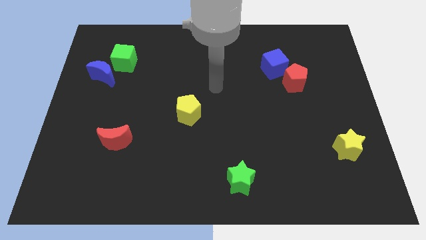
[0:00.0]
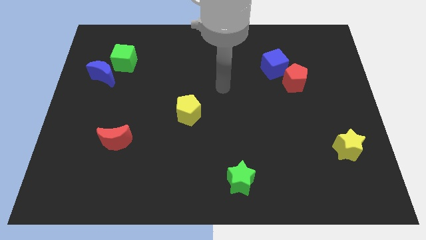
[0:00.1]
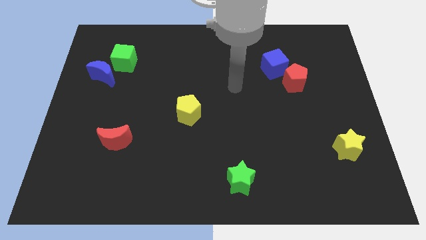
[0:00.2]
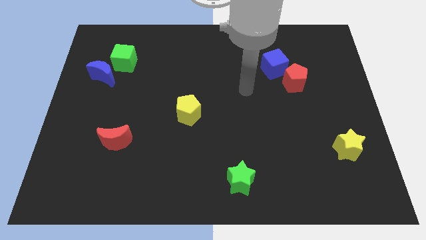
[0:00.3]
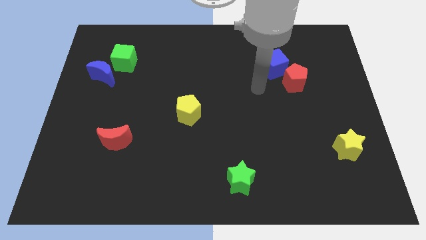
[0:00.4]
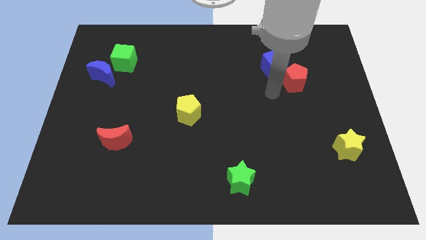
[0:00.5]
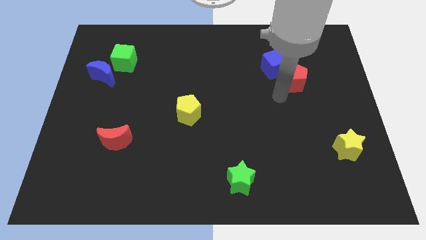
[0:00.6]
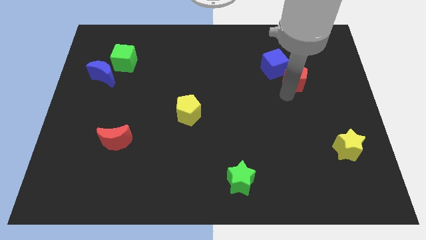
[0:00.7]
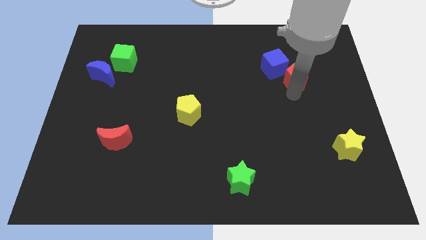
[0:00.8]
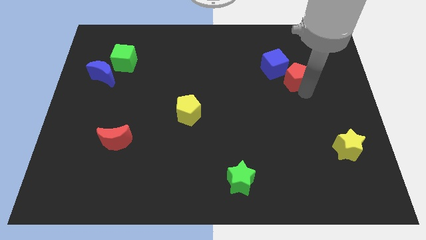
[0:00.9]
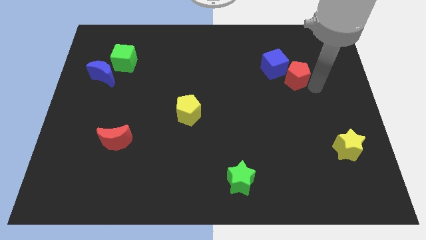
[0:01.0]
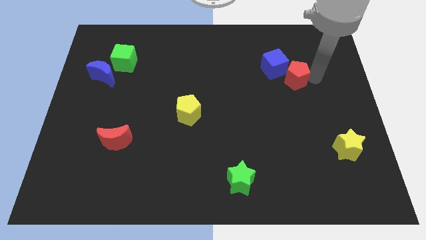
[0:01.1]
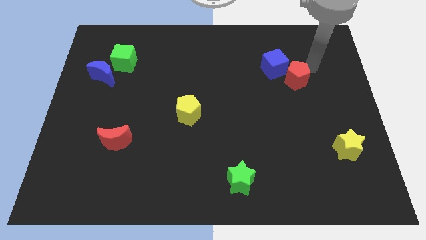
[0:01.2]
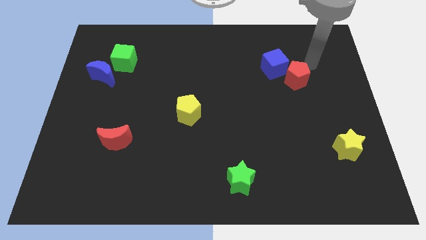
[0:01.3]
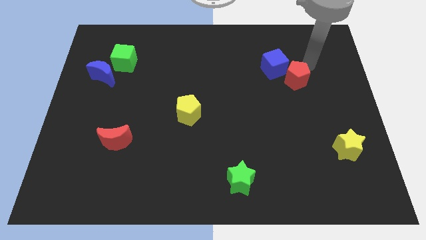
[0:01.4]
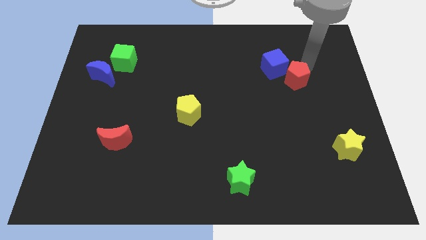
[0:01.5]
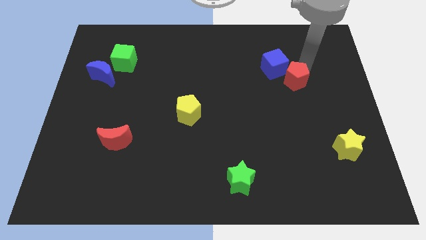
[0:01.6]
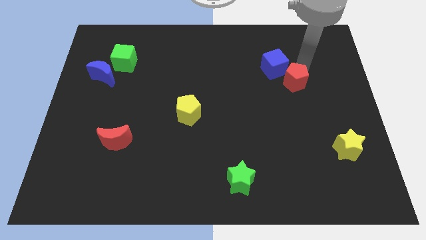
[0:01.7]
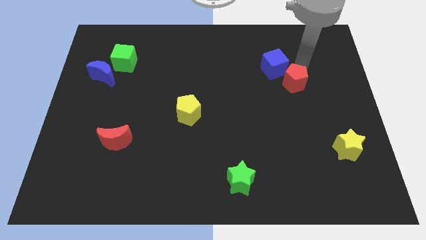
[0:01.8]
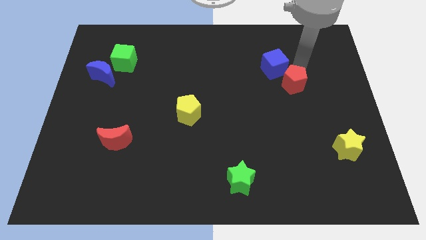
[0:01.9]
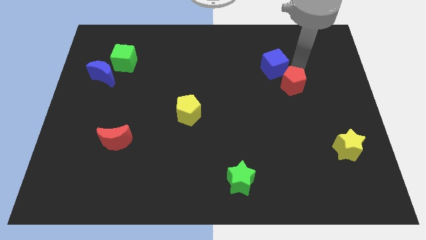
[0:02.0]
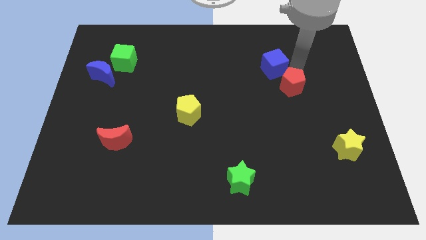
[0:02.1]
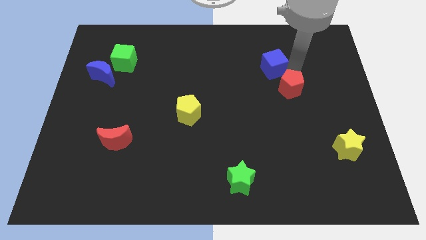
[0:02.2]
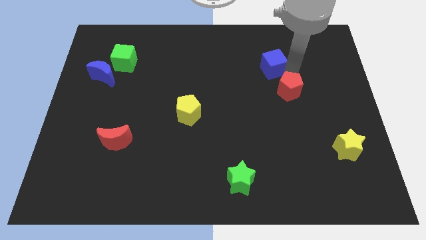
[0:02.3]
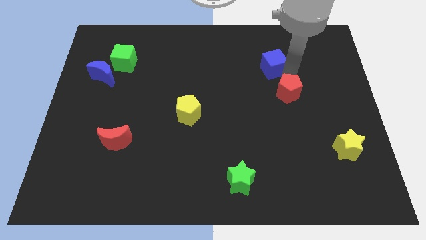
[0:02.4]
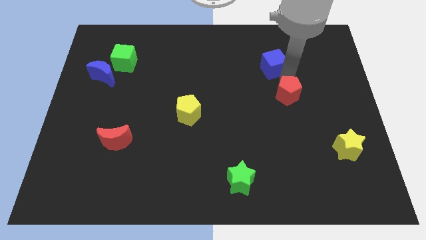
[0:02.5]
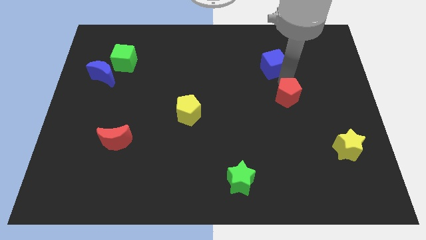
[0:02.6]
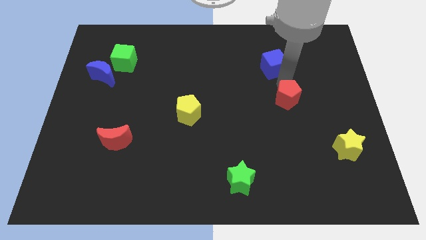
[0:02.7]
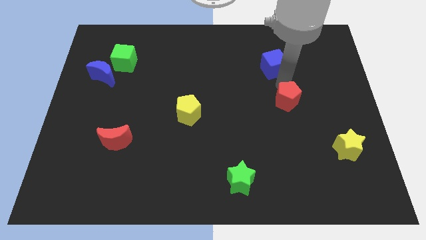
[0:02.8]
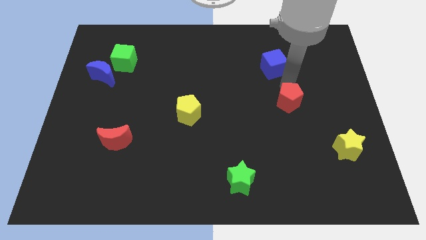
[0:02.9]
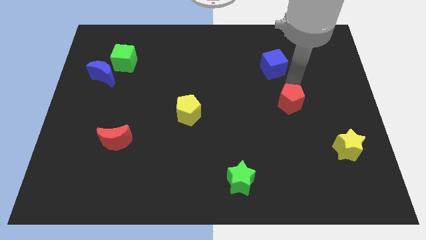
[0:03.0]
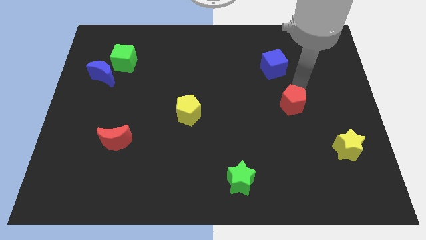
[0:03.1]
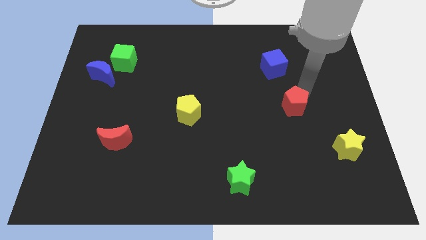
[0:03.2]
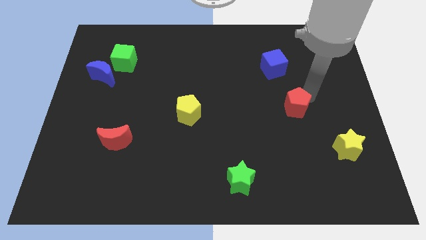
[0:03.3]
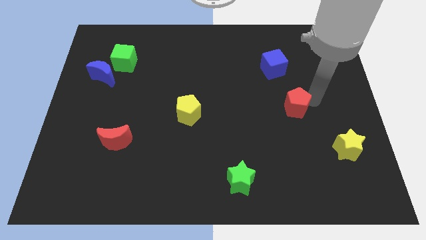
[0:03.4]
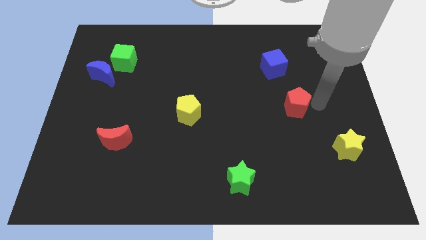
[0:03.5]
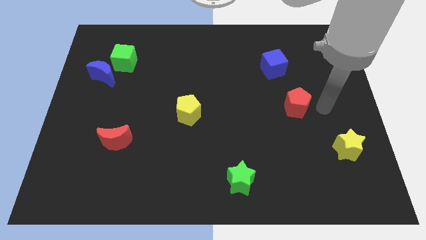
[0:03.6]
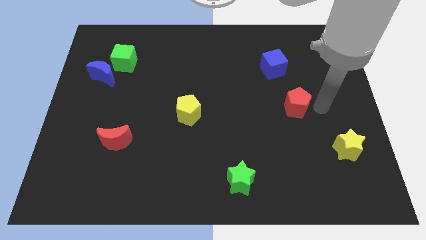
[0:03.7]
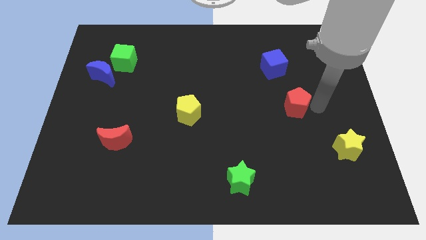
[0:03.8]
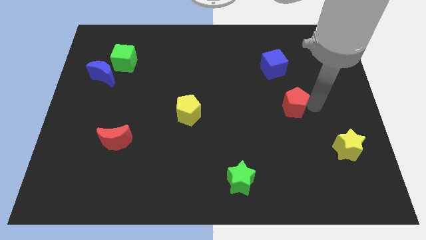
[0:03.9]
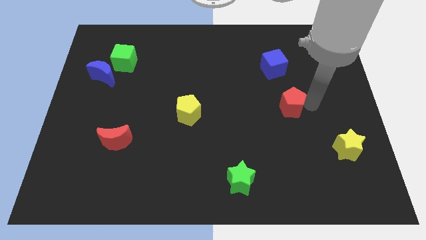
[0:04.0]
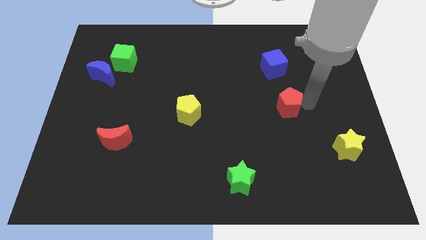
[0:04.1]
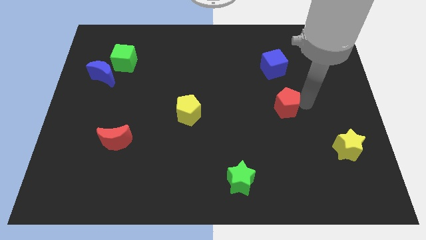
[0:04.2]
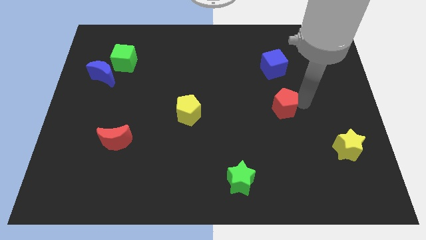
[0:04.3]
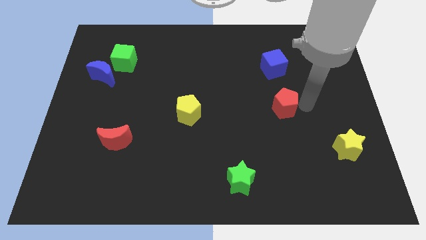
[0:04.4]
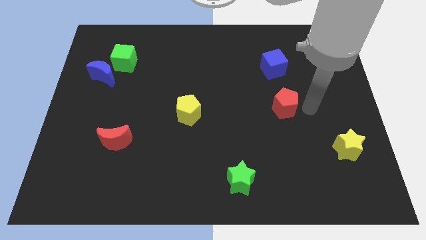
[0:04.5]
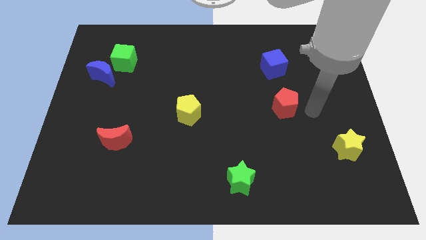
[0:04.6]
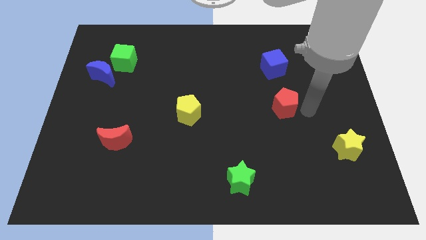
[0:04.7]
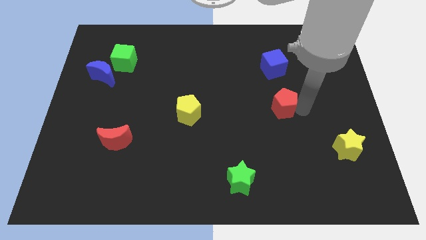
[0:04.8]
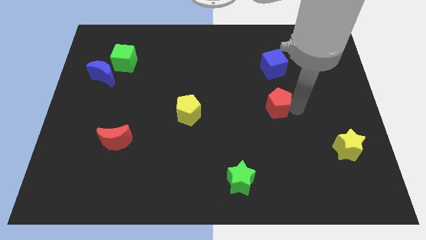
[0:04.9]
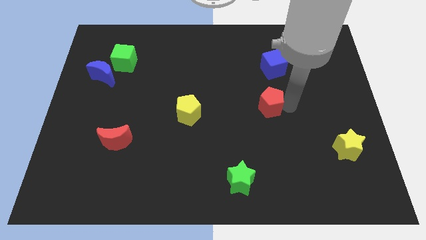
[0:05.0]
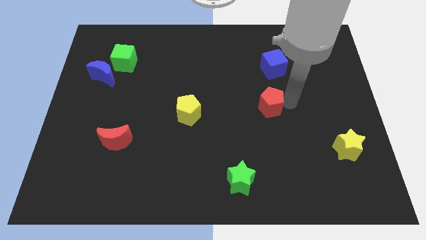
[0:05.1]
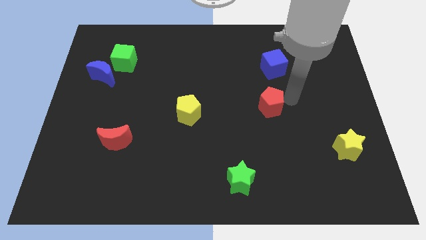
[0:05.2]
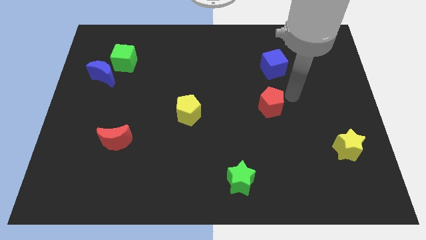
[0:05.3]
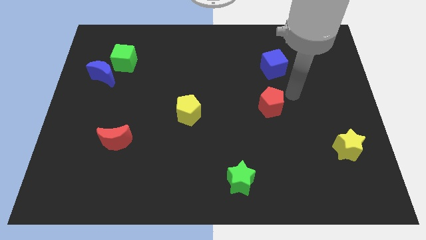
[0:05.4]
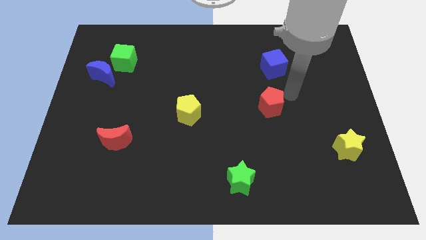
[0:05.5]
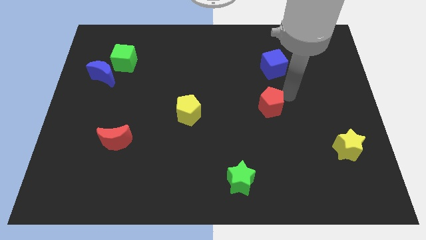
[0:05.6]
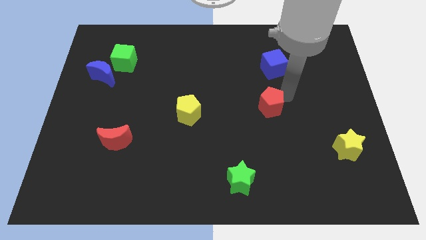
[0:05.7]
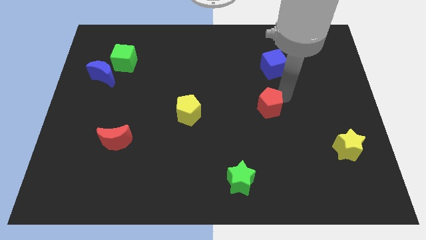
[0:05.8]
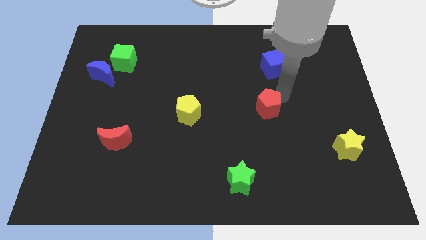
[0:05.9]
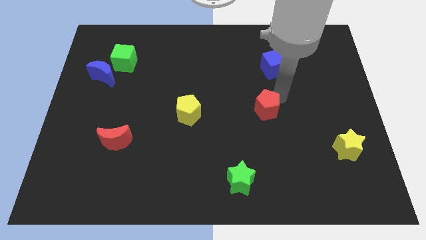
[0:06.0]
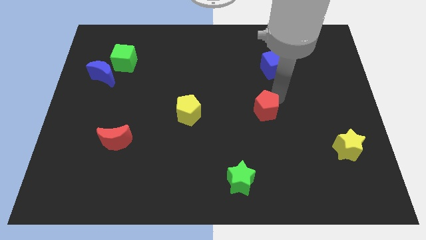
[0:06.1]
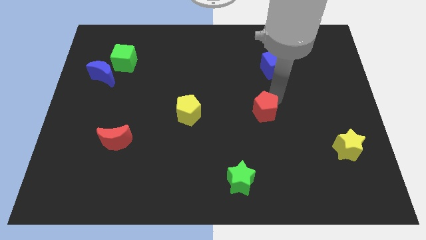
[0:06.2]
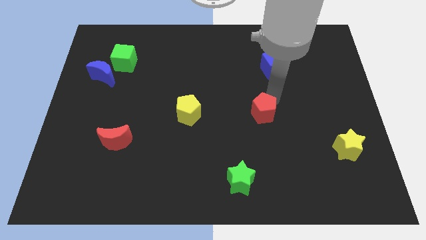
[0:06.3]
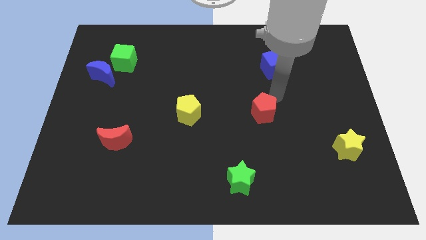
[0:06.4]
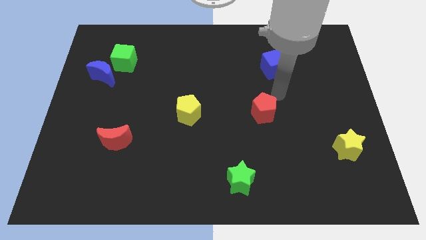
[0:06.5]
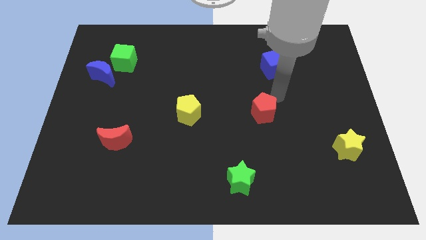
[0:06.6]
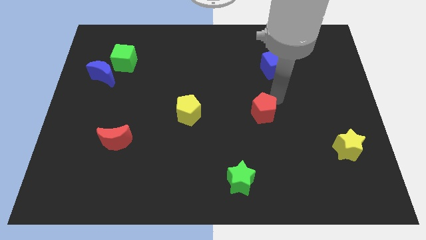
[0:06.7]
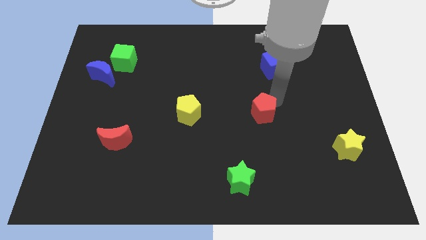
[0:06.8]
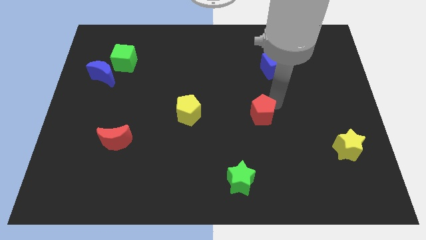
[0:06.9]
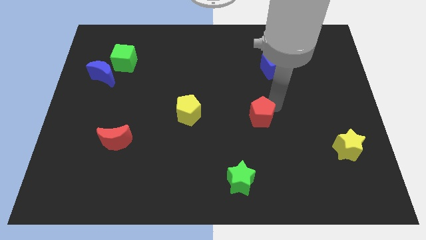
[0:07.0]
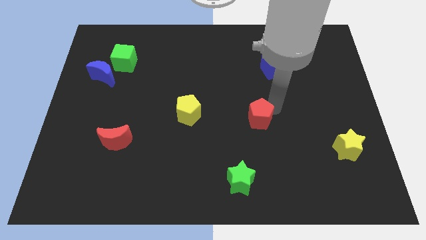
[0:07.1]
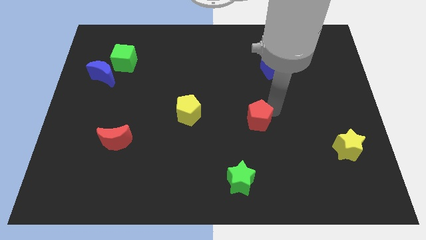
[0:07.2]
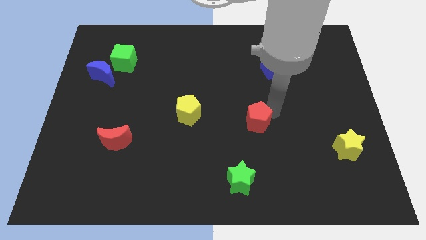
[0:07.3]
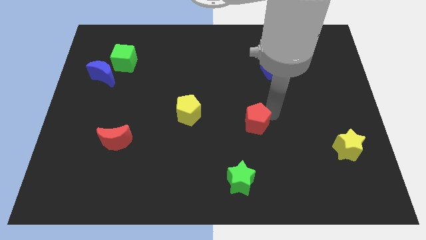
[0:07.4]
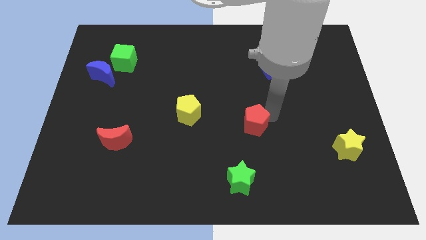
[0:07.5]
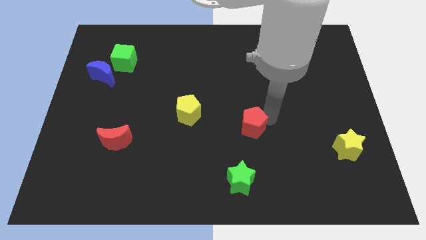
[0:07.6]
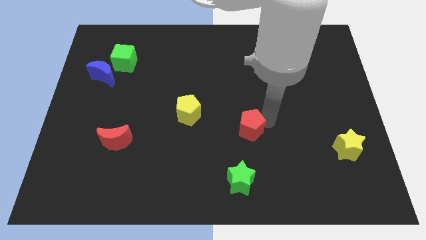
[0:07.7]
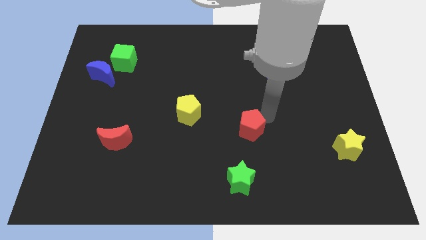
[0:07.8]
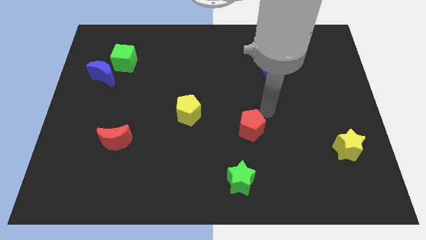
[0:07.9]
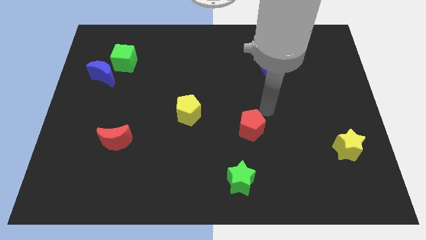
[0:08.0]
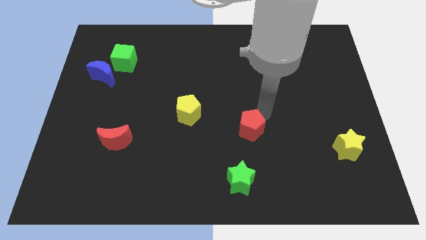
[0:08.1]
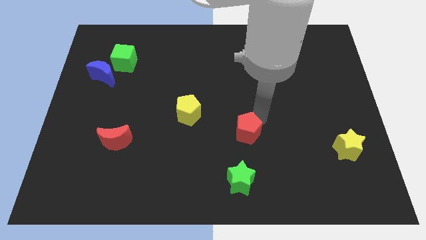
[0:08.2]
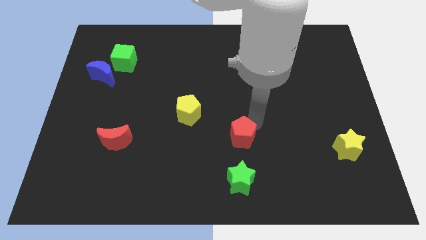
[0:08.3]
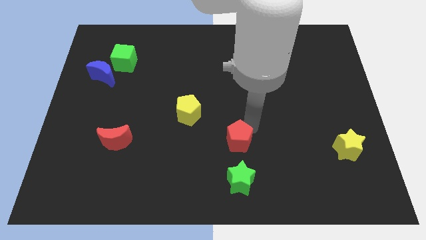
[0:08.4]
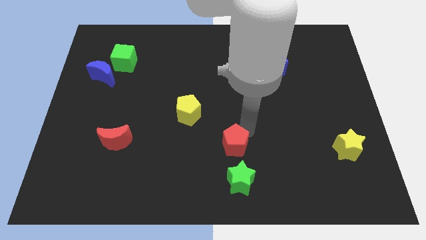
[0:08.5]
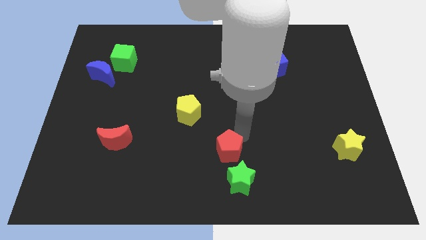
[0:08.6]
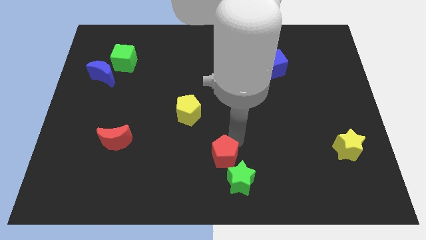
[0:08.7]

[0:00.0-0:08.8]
slide the red pentagon to the bottom
